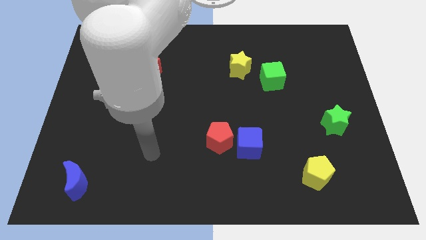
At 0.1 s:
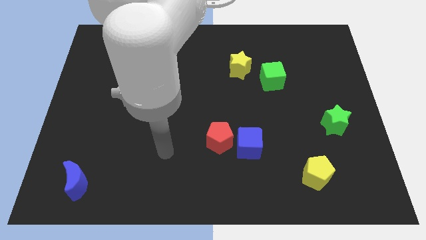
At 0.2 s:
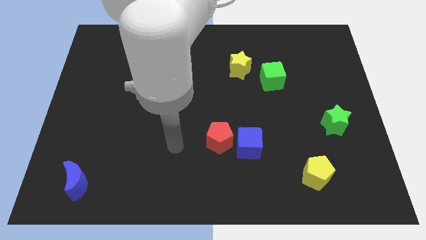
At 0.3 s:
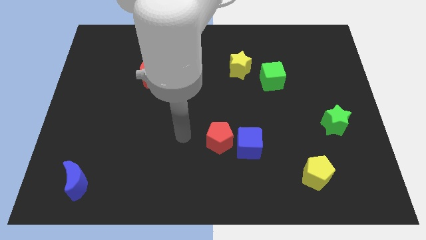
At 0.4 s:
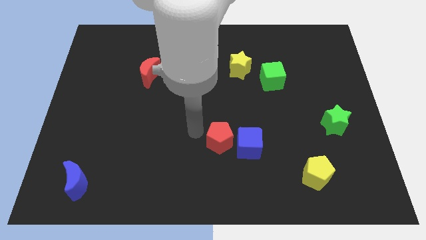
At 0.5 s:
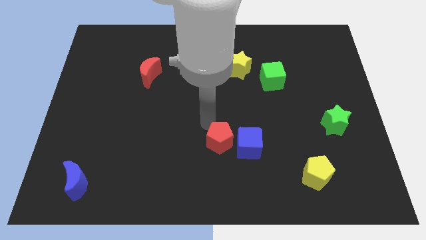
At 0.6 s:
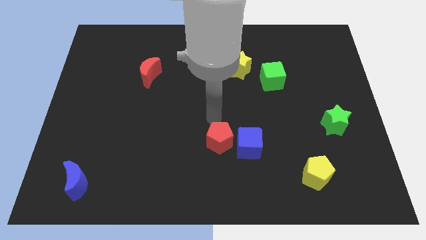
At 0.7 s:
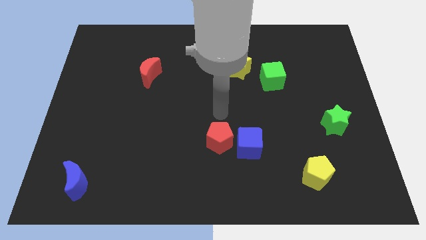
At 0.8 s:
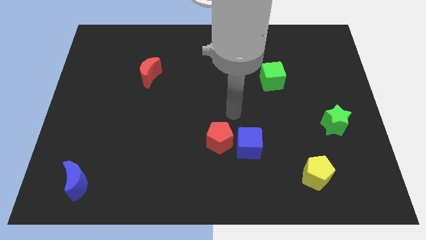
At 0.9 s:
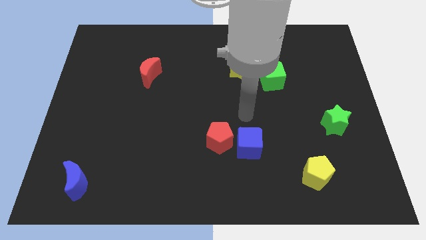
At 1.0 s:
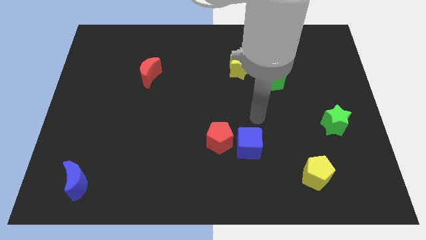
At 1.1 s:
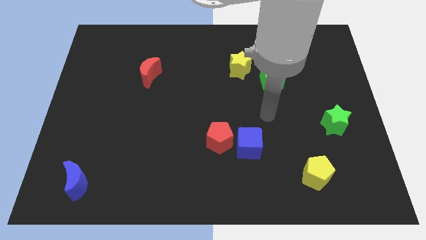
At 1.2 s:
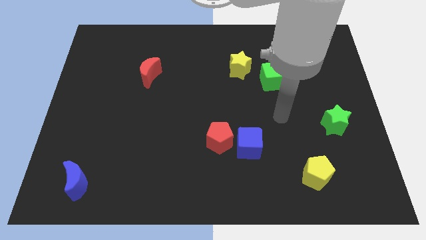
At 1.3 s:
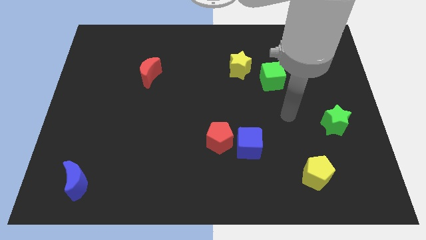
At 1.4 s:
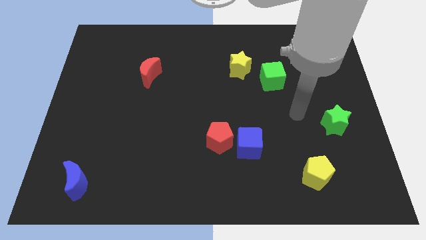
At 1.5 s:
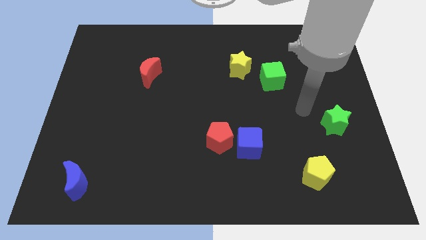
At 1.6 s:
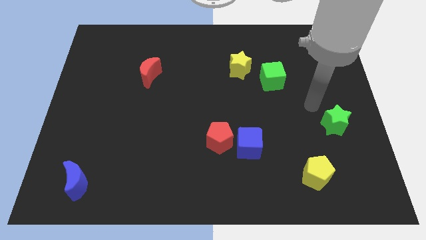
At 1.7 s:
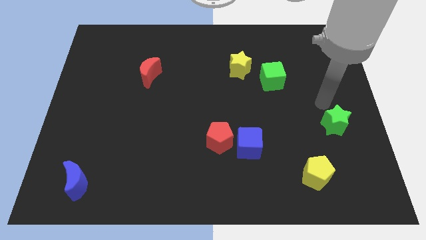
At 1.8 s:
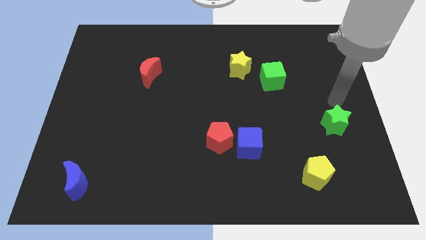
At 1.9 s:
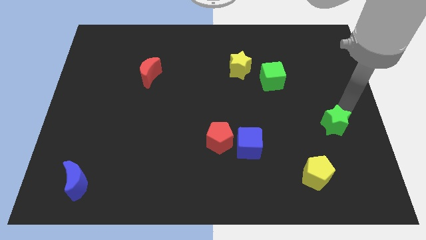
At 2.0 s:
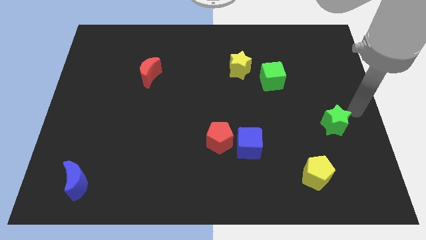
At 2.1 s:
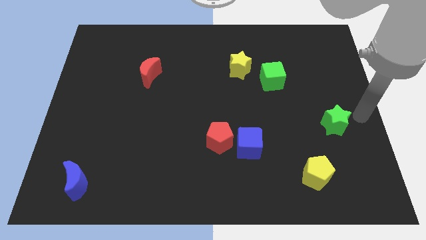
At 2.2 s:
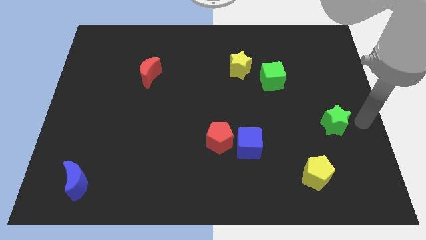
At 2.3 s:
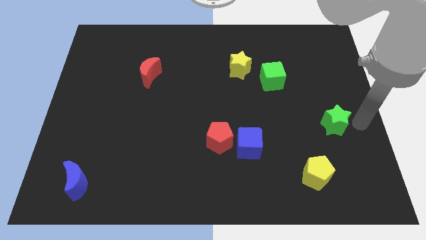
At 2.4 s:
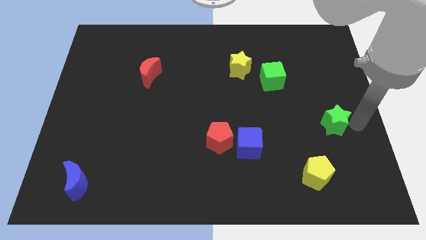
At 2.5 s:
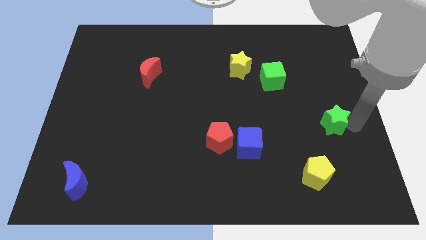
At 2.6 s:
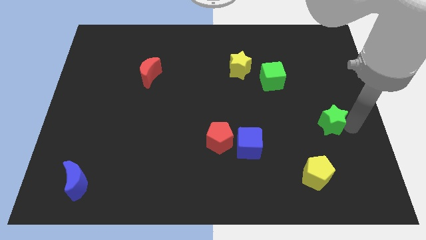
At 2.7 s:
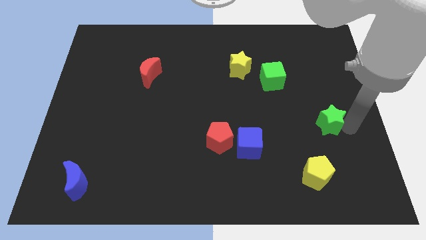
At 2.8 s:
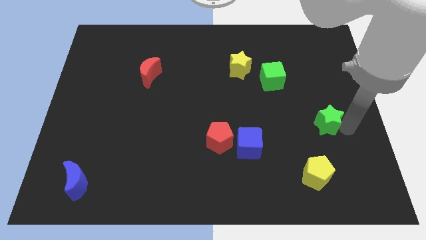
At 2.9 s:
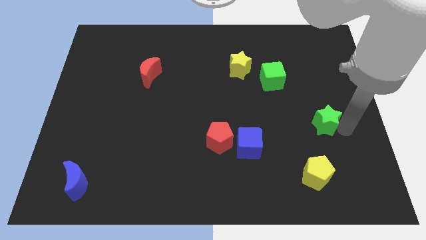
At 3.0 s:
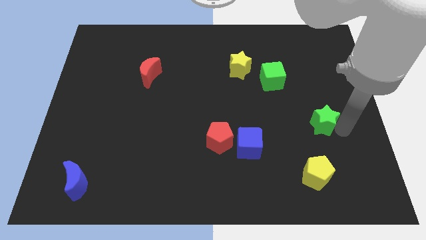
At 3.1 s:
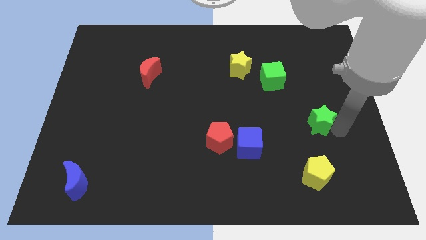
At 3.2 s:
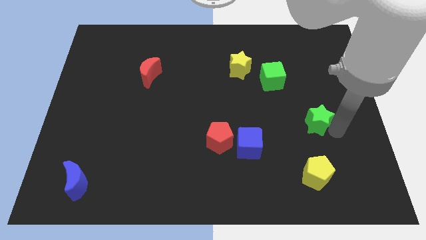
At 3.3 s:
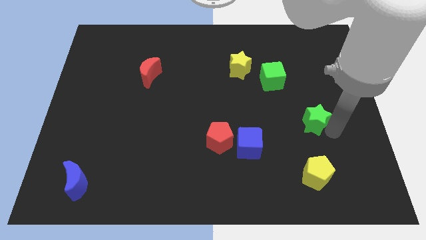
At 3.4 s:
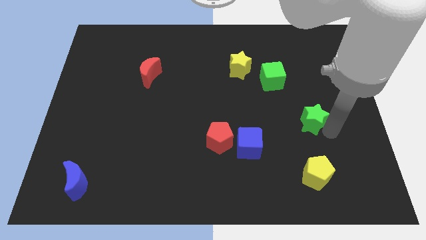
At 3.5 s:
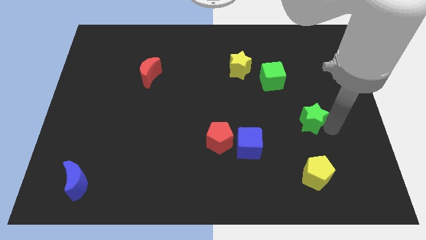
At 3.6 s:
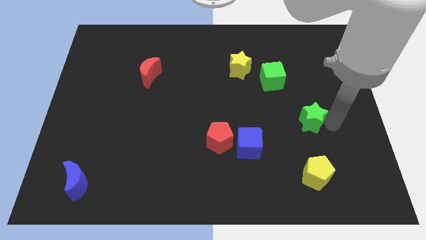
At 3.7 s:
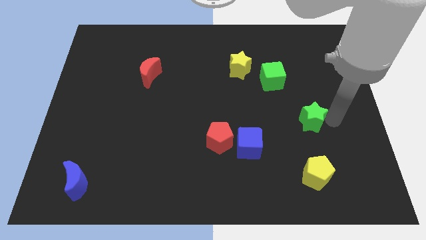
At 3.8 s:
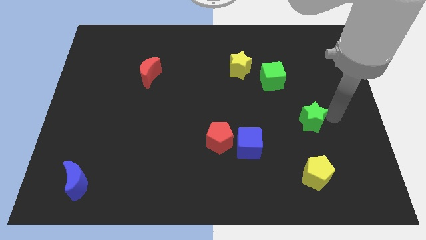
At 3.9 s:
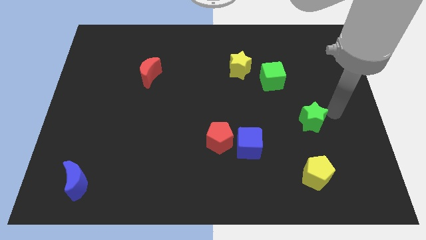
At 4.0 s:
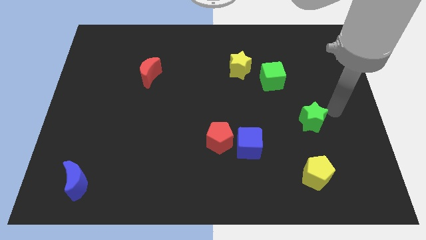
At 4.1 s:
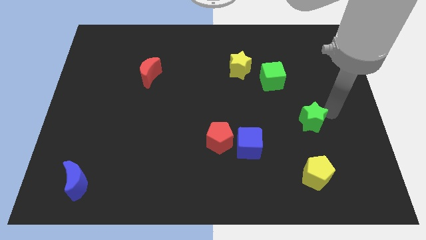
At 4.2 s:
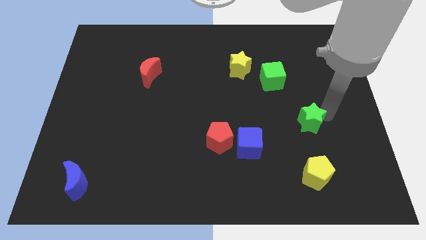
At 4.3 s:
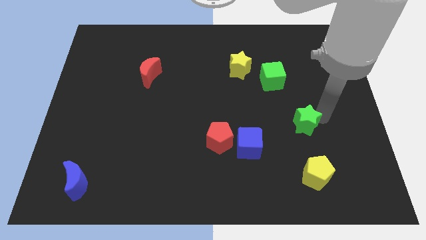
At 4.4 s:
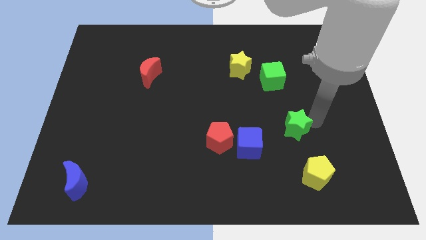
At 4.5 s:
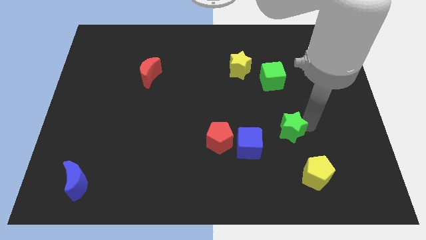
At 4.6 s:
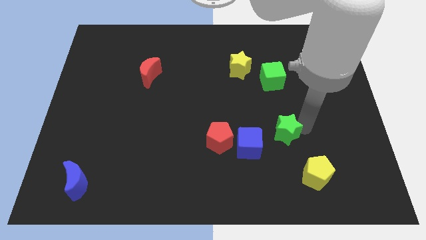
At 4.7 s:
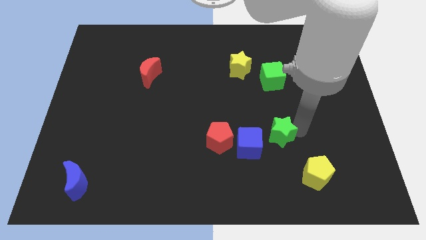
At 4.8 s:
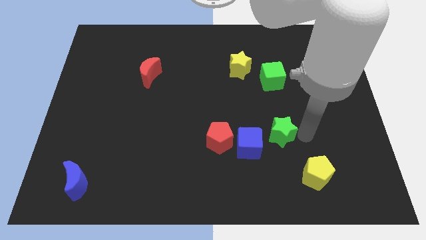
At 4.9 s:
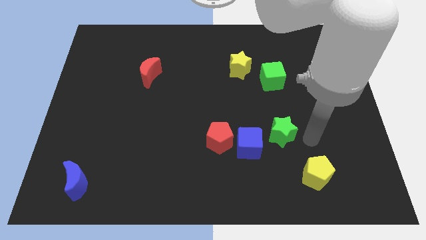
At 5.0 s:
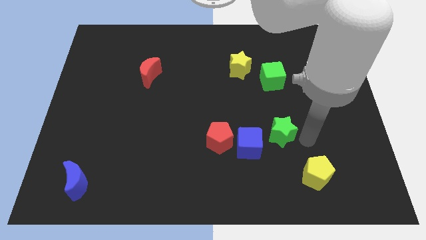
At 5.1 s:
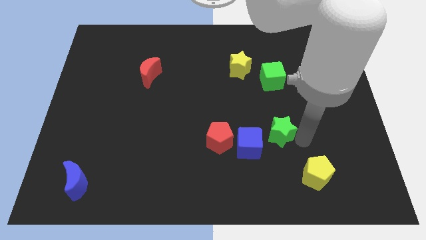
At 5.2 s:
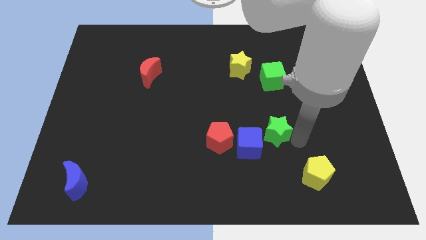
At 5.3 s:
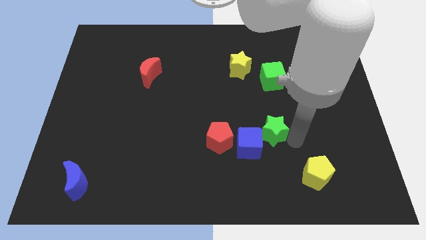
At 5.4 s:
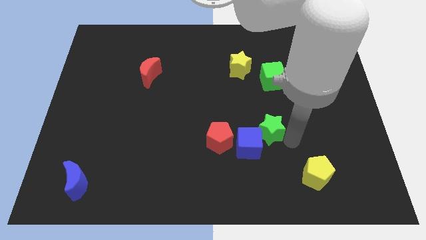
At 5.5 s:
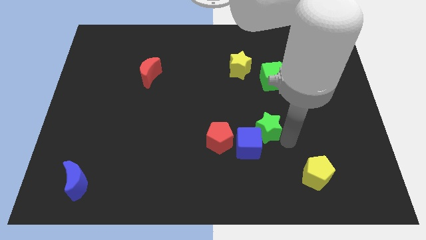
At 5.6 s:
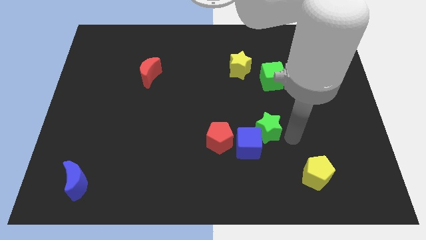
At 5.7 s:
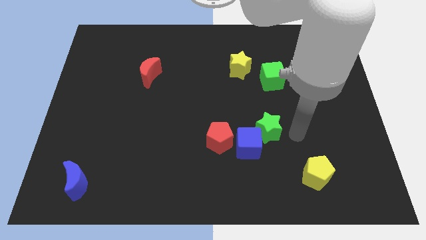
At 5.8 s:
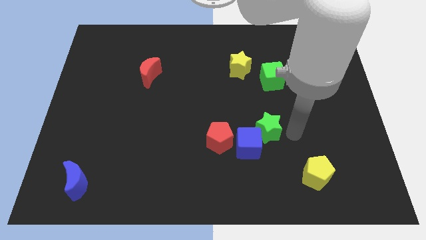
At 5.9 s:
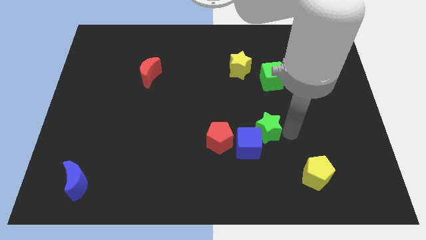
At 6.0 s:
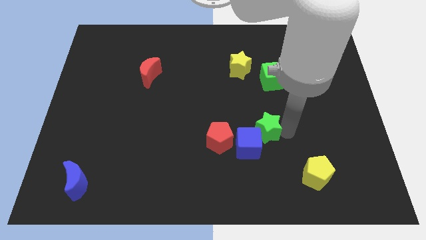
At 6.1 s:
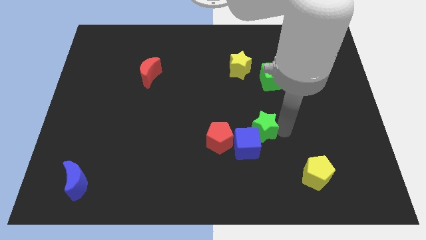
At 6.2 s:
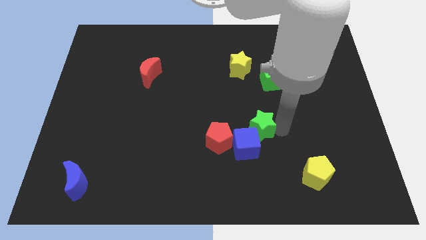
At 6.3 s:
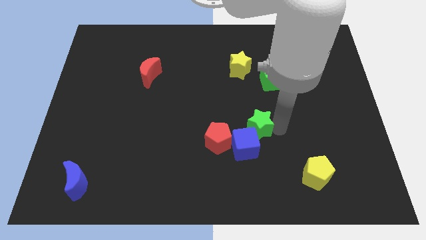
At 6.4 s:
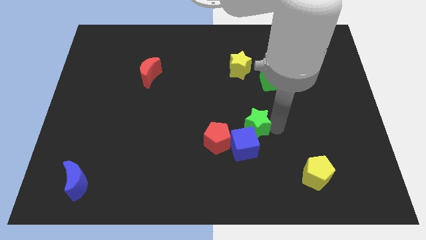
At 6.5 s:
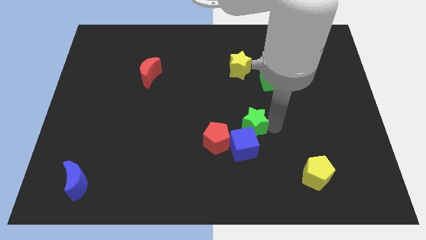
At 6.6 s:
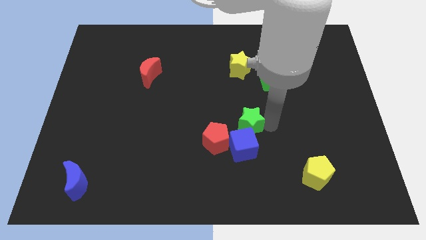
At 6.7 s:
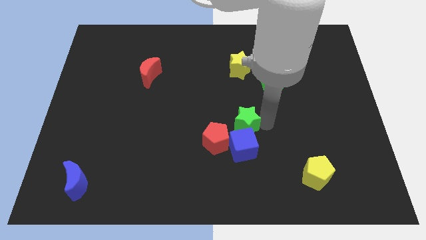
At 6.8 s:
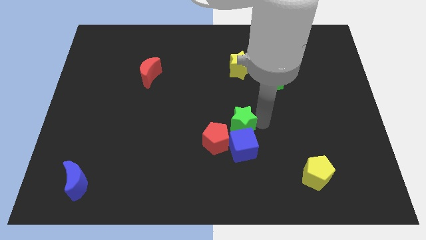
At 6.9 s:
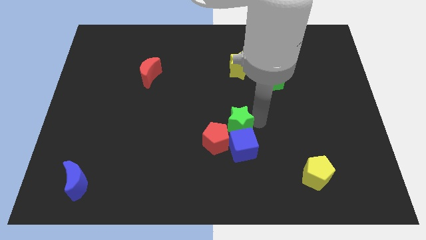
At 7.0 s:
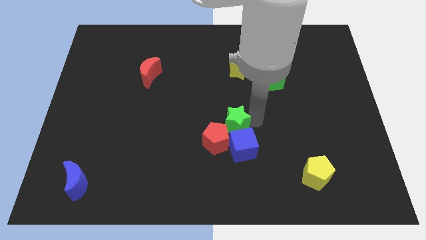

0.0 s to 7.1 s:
move the green star close to the red pentagon

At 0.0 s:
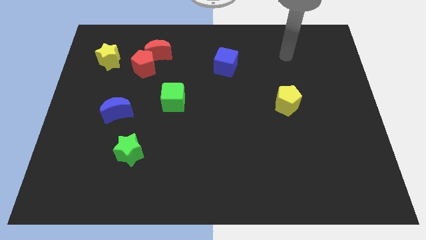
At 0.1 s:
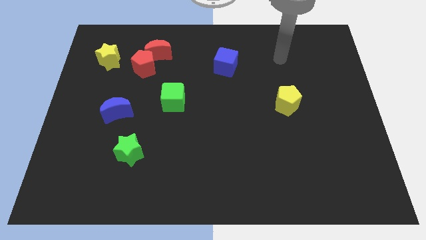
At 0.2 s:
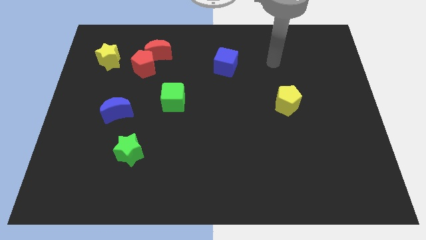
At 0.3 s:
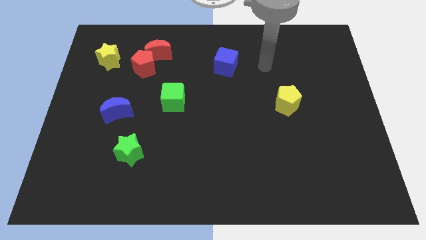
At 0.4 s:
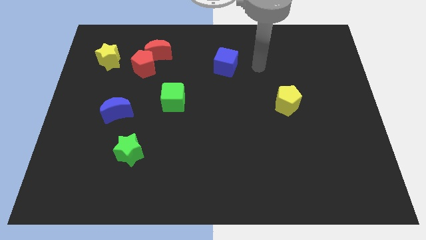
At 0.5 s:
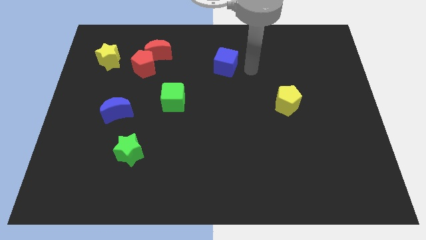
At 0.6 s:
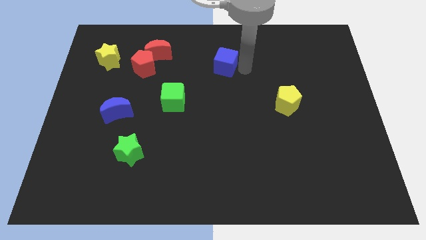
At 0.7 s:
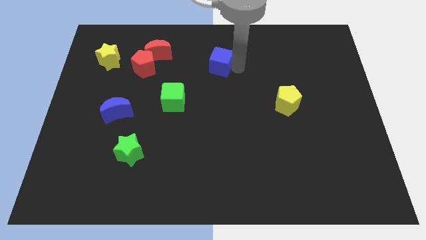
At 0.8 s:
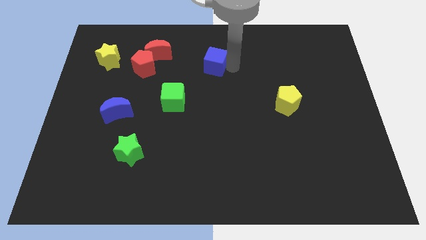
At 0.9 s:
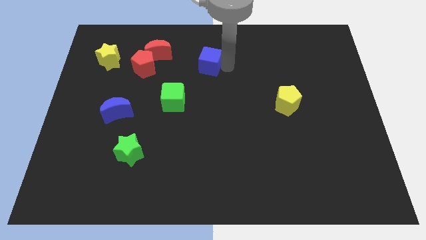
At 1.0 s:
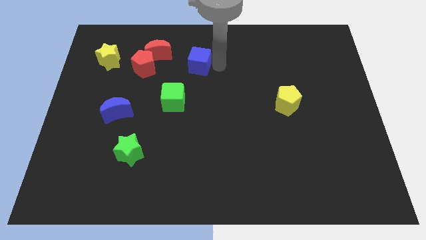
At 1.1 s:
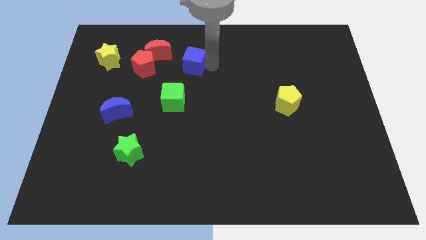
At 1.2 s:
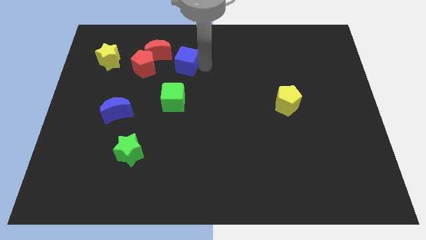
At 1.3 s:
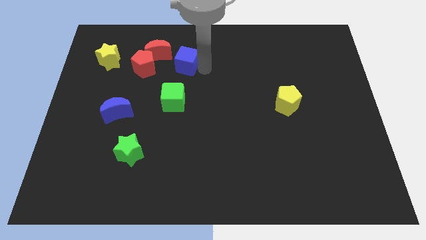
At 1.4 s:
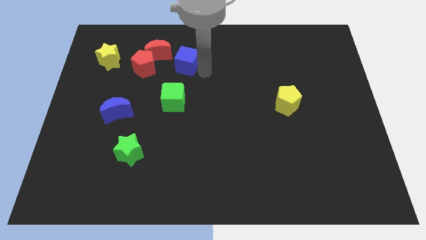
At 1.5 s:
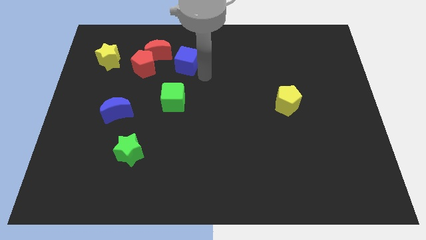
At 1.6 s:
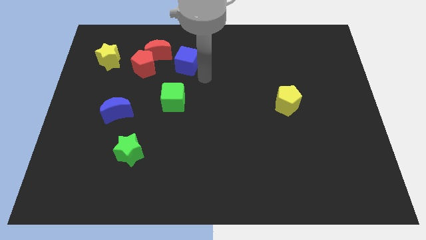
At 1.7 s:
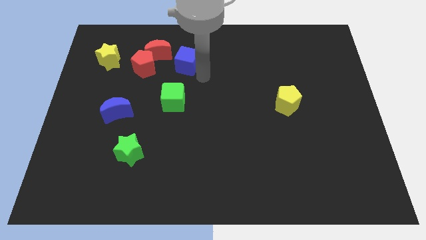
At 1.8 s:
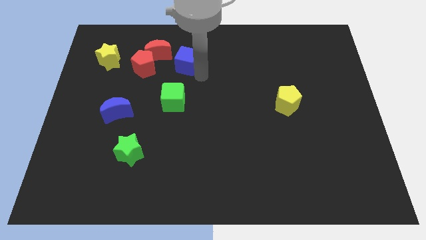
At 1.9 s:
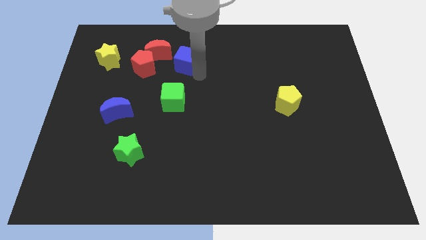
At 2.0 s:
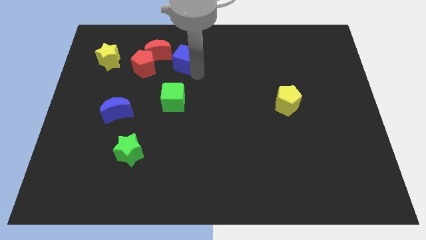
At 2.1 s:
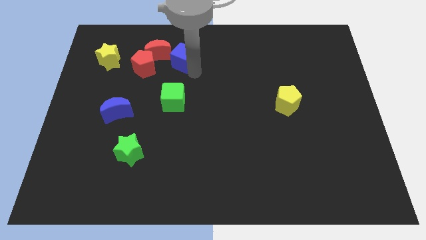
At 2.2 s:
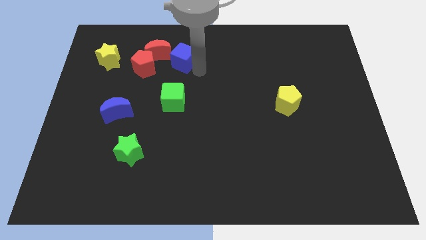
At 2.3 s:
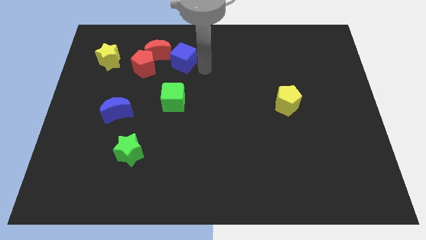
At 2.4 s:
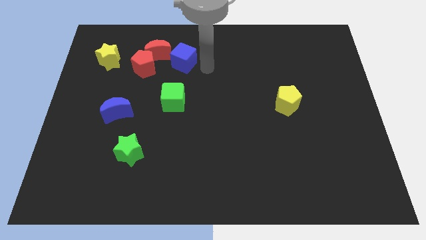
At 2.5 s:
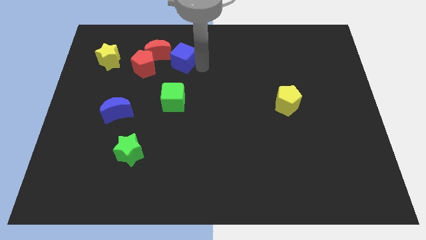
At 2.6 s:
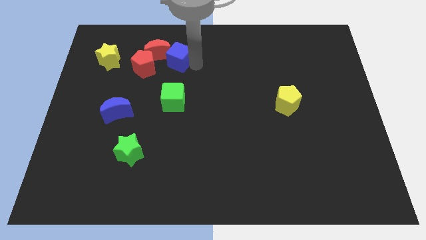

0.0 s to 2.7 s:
put the blue cube next to the red moon
